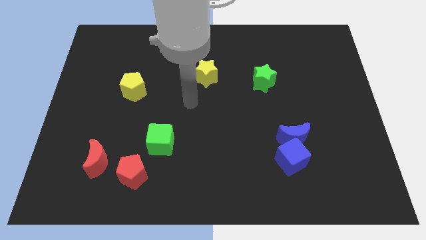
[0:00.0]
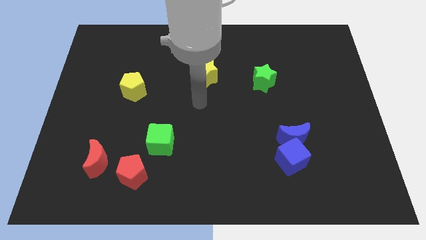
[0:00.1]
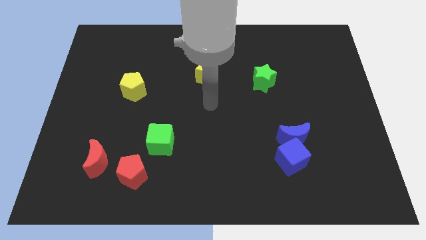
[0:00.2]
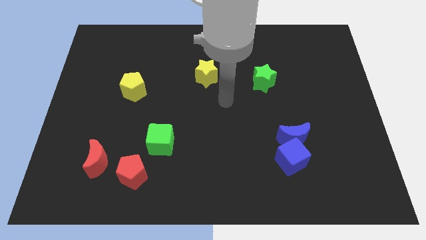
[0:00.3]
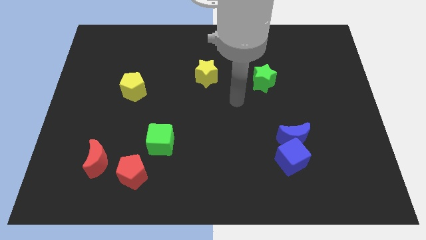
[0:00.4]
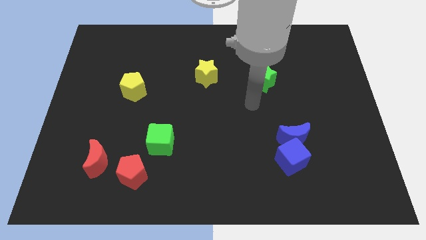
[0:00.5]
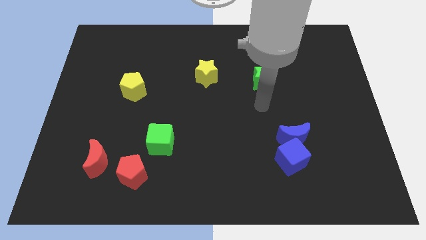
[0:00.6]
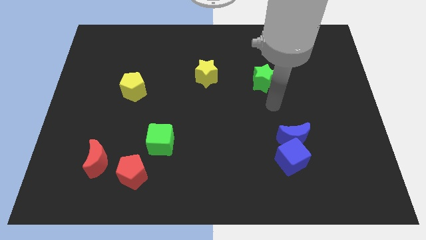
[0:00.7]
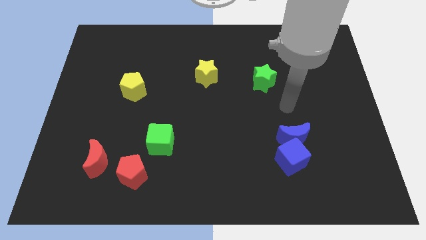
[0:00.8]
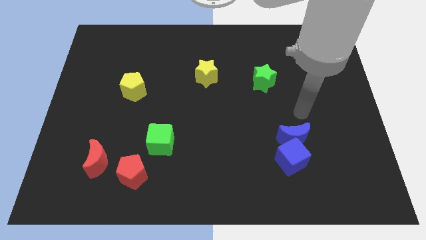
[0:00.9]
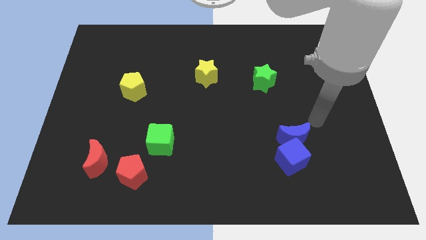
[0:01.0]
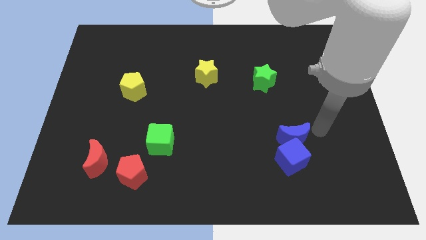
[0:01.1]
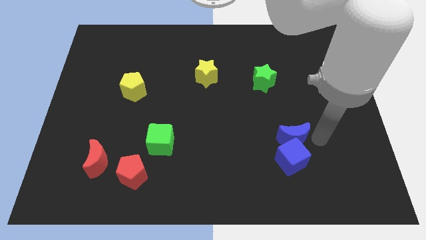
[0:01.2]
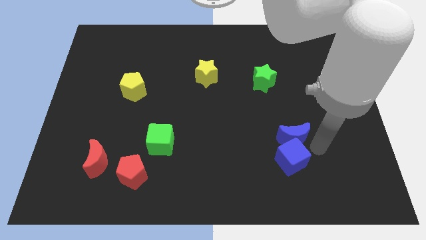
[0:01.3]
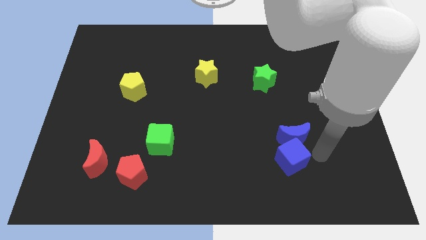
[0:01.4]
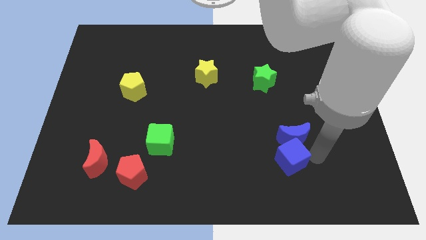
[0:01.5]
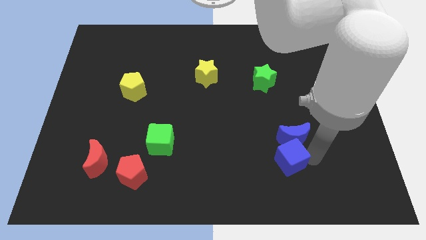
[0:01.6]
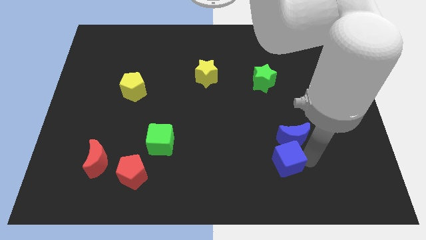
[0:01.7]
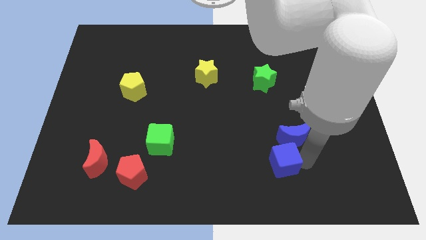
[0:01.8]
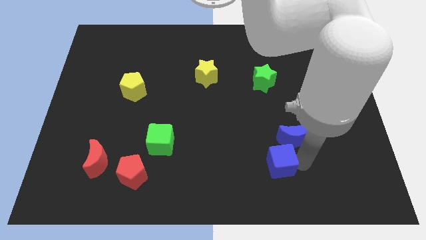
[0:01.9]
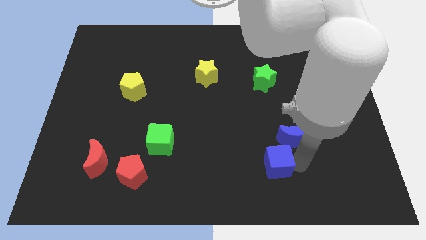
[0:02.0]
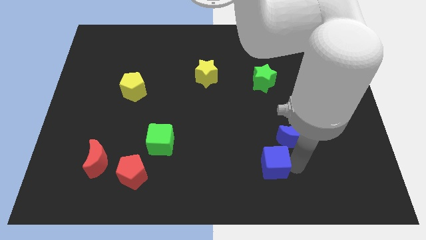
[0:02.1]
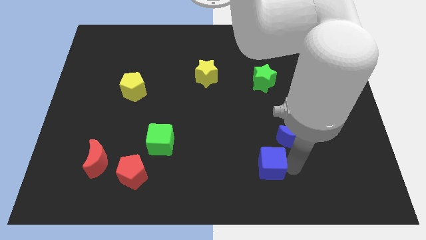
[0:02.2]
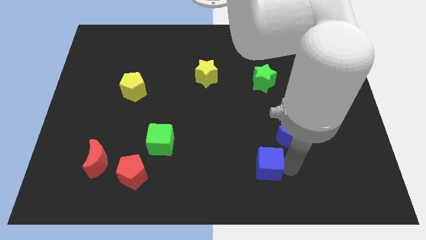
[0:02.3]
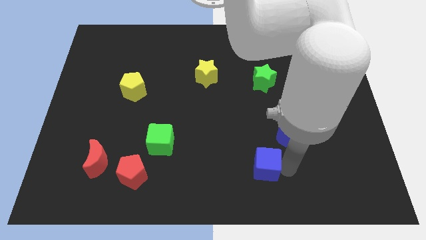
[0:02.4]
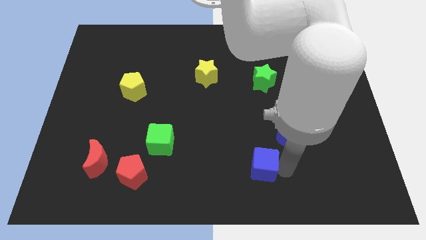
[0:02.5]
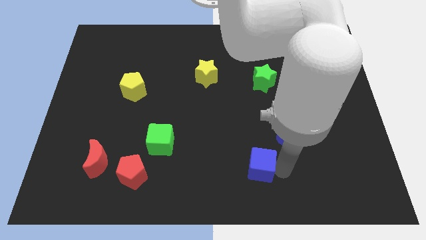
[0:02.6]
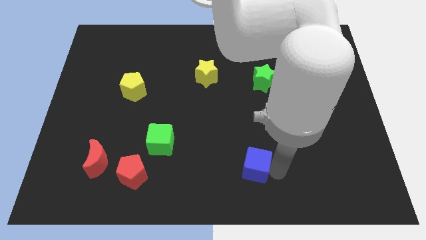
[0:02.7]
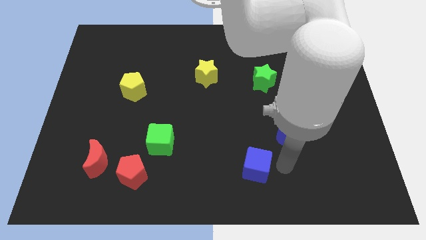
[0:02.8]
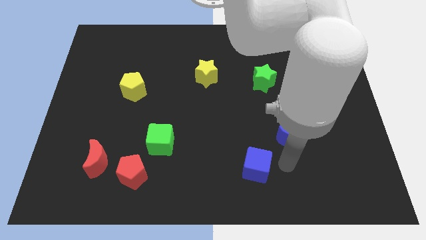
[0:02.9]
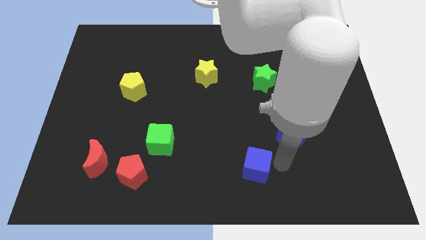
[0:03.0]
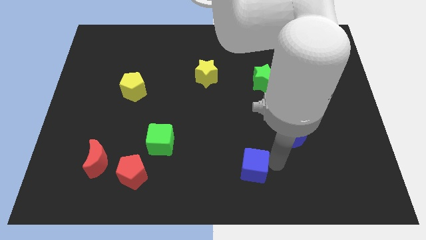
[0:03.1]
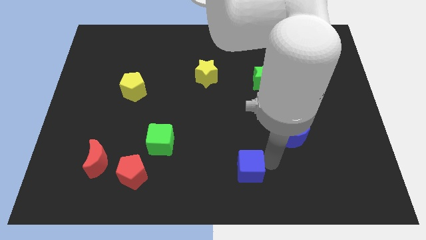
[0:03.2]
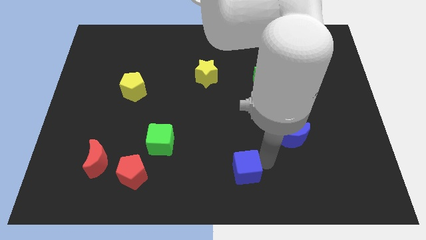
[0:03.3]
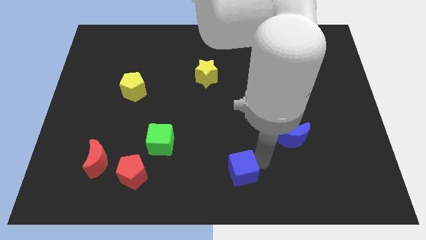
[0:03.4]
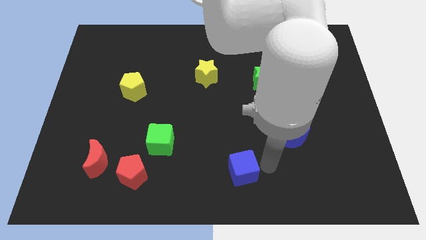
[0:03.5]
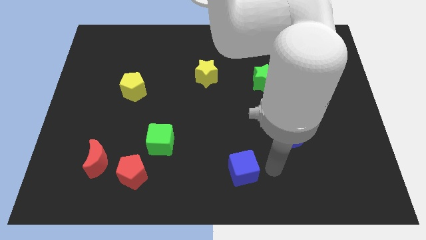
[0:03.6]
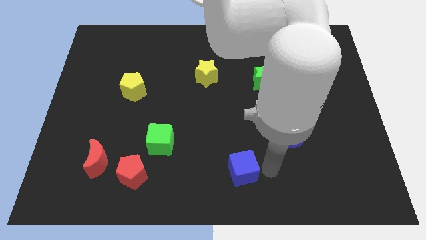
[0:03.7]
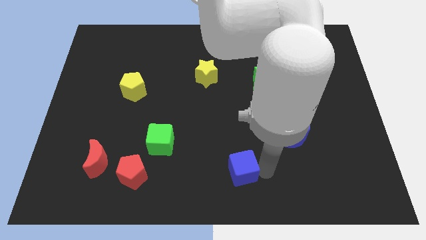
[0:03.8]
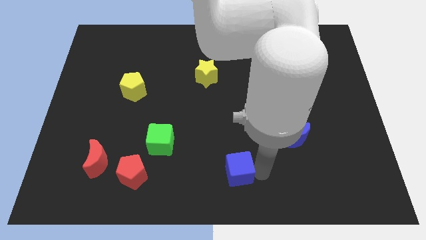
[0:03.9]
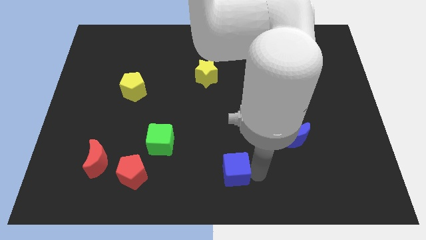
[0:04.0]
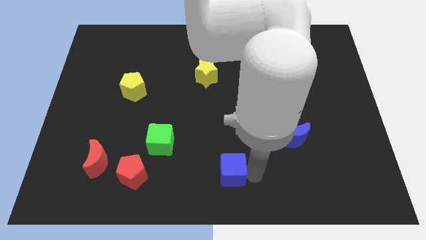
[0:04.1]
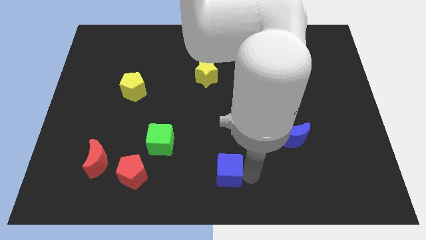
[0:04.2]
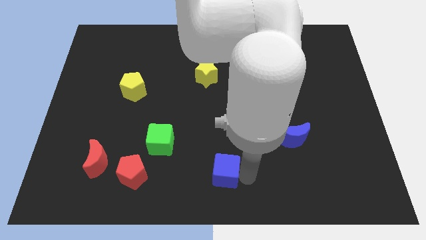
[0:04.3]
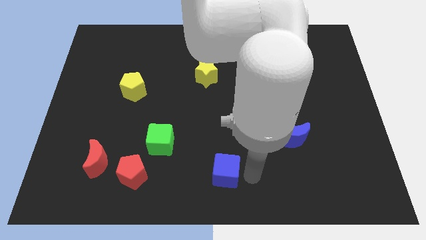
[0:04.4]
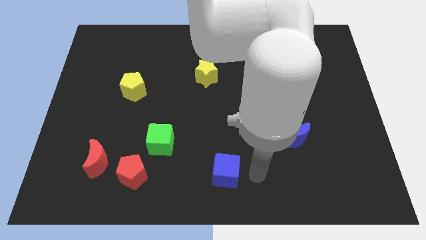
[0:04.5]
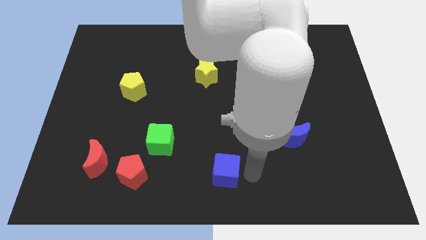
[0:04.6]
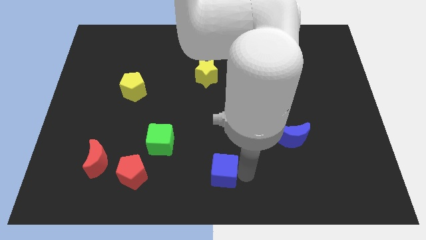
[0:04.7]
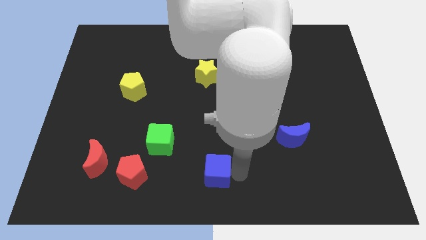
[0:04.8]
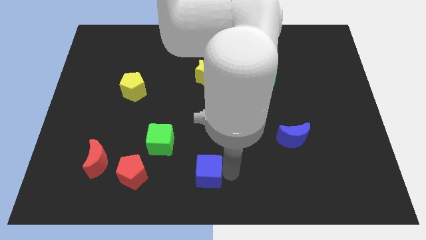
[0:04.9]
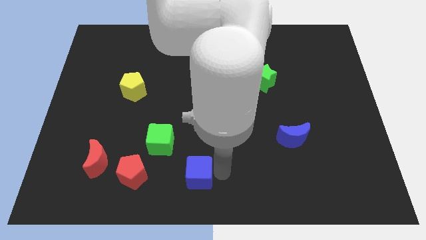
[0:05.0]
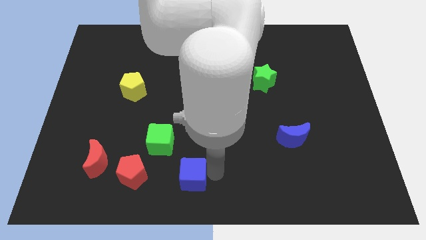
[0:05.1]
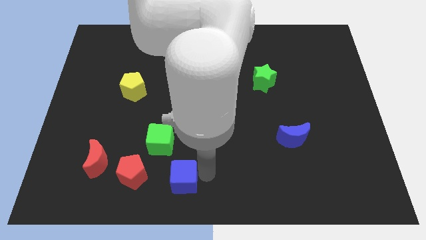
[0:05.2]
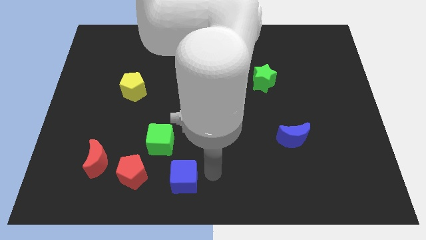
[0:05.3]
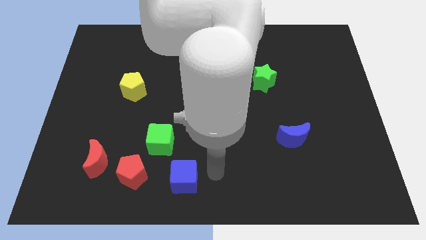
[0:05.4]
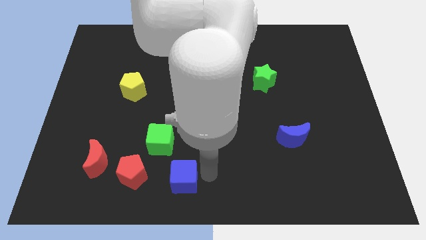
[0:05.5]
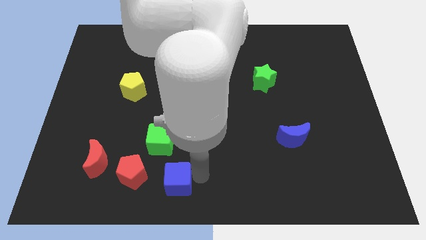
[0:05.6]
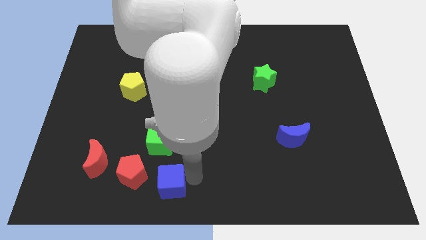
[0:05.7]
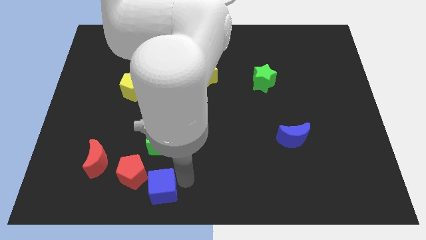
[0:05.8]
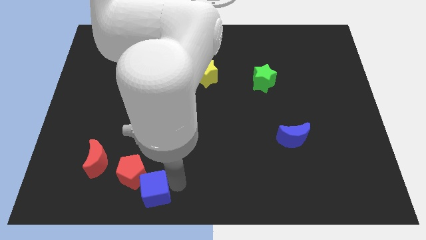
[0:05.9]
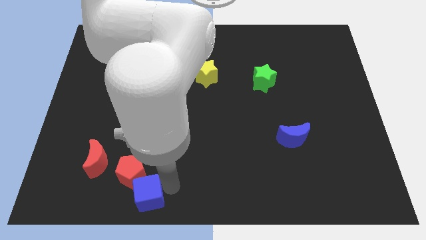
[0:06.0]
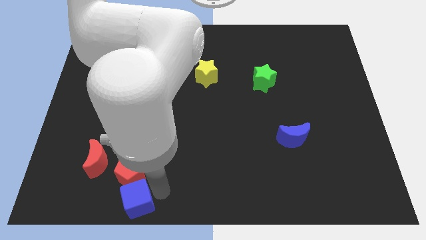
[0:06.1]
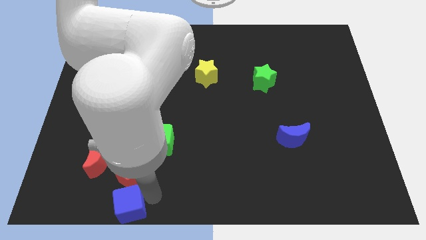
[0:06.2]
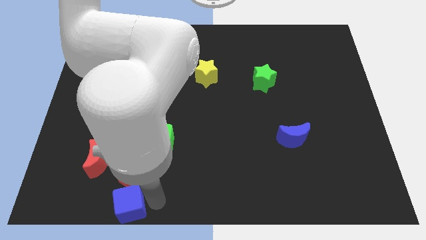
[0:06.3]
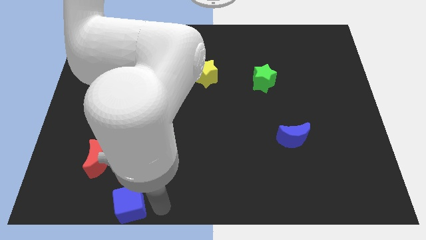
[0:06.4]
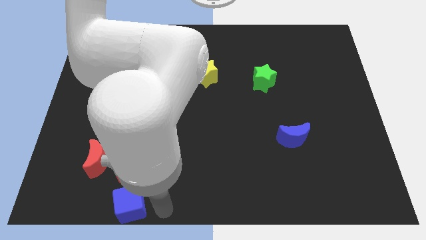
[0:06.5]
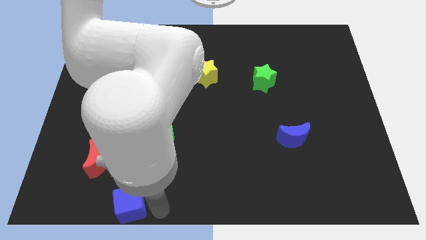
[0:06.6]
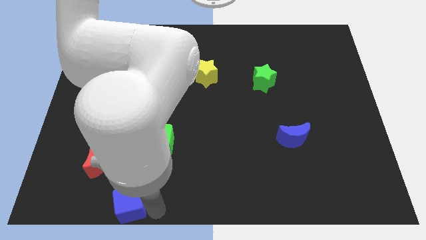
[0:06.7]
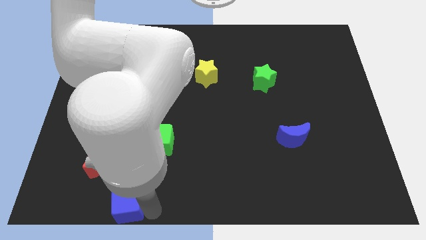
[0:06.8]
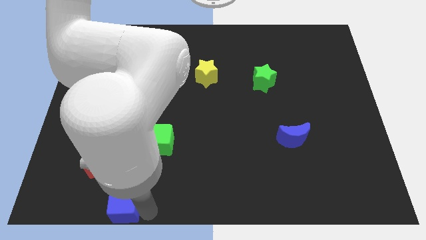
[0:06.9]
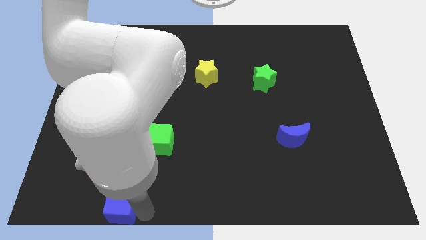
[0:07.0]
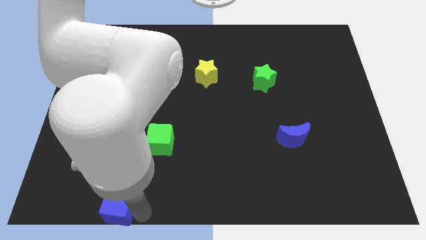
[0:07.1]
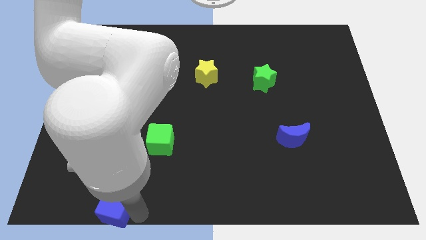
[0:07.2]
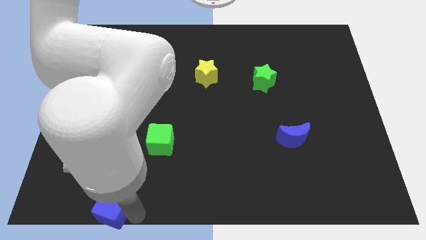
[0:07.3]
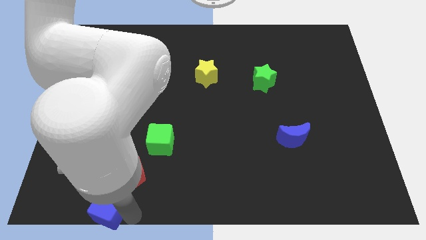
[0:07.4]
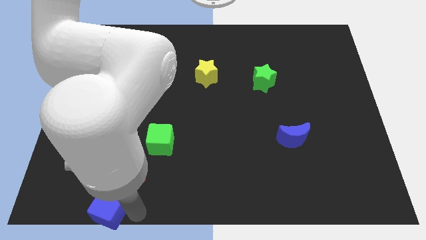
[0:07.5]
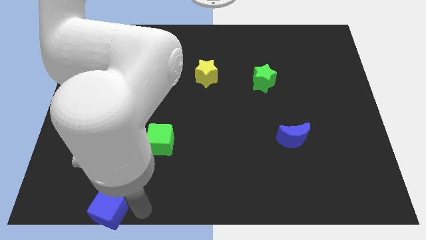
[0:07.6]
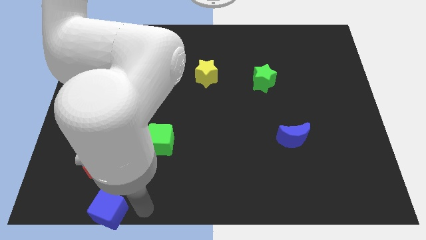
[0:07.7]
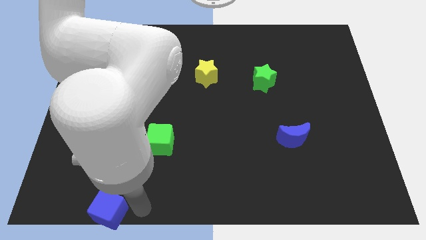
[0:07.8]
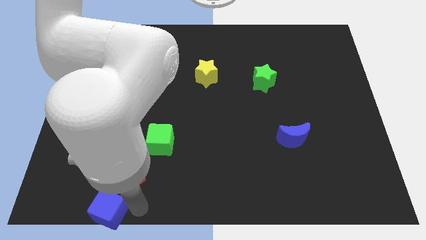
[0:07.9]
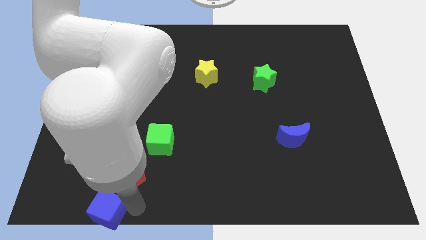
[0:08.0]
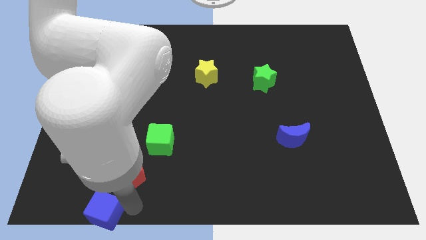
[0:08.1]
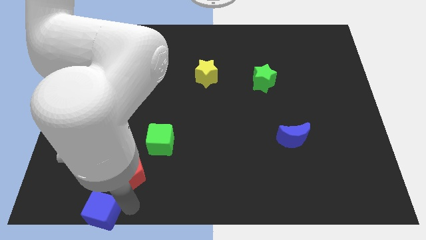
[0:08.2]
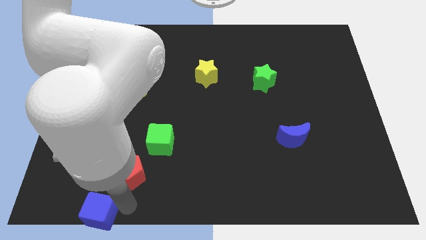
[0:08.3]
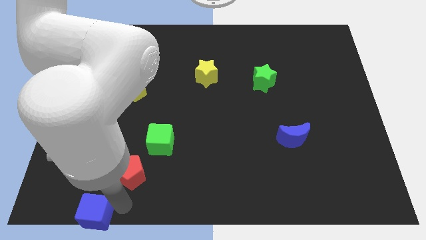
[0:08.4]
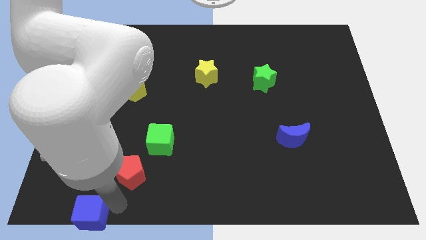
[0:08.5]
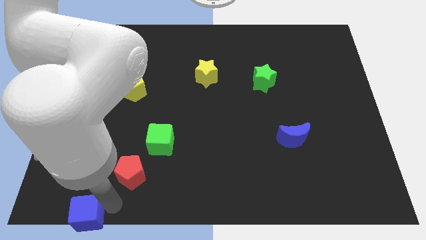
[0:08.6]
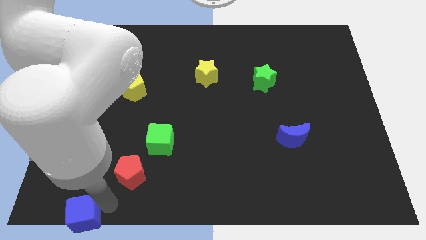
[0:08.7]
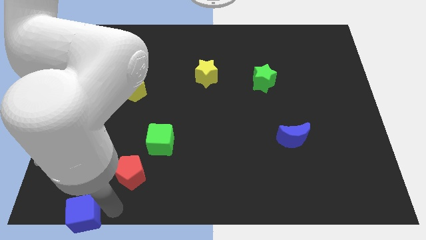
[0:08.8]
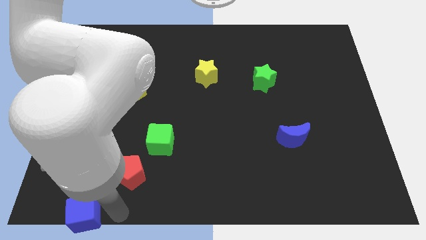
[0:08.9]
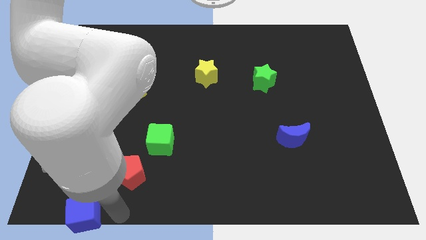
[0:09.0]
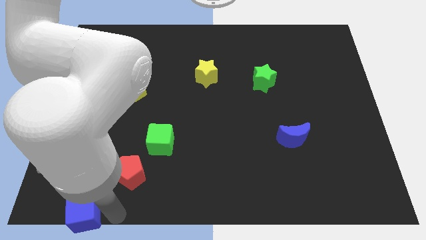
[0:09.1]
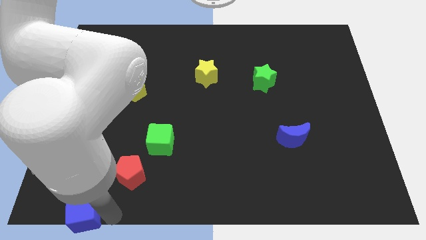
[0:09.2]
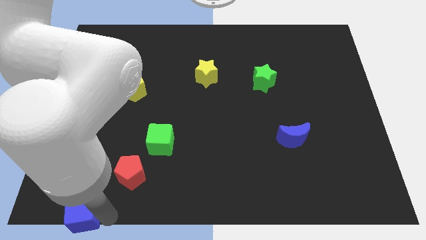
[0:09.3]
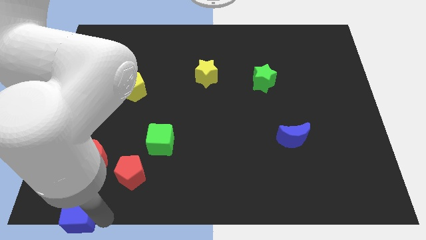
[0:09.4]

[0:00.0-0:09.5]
push the blue cube to the bottom left corner
